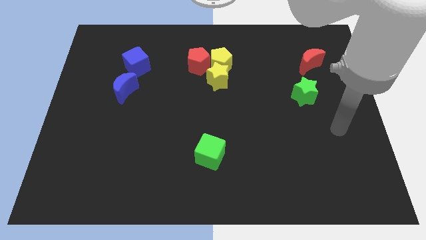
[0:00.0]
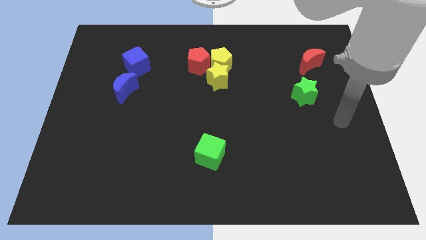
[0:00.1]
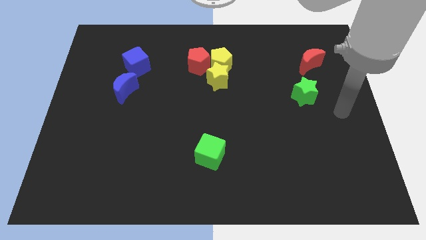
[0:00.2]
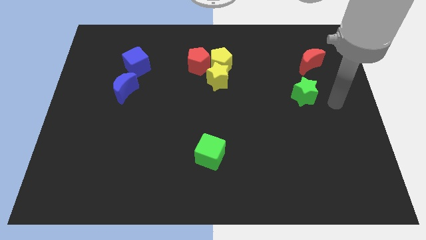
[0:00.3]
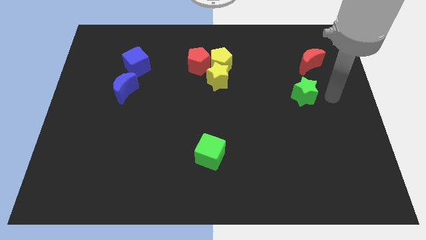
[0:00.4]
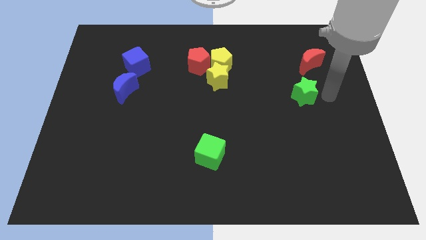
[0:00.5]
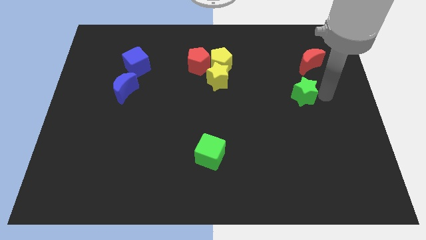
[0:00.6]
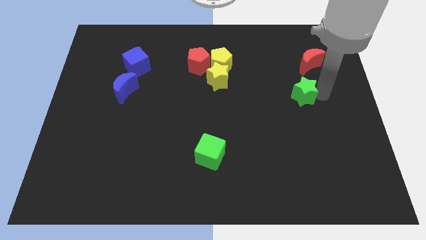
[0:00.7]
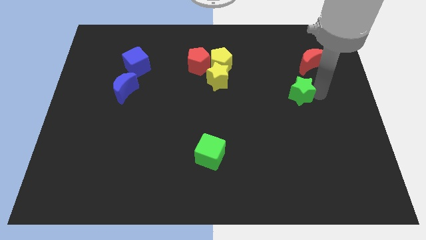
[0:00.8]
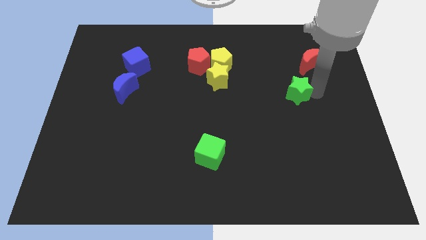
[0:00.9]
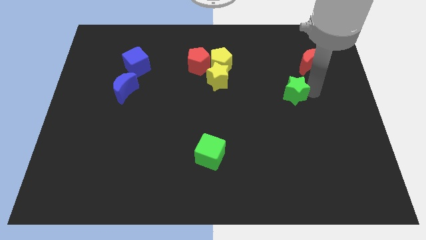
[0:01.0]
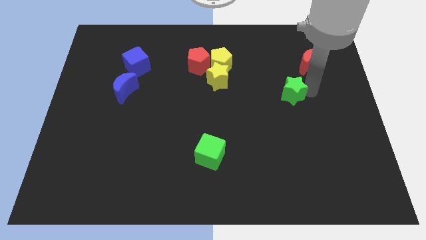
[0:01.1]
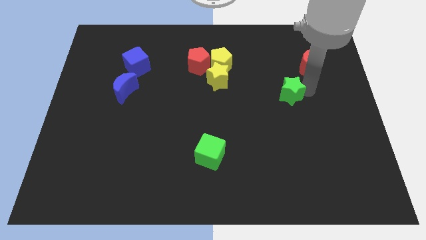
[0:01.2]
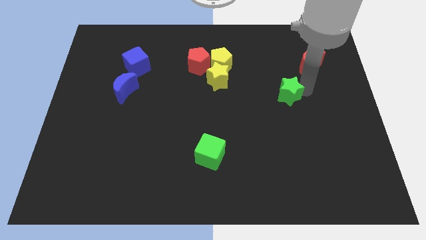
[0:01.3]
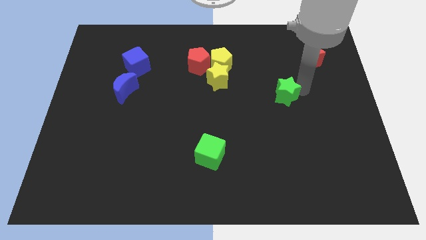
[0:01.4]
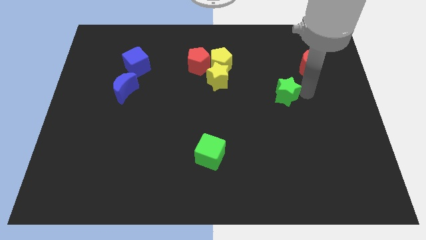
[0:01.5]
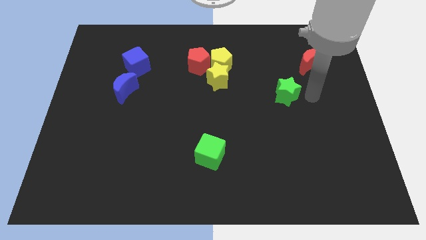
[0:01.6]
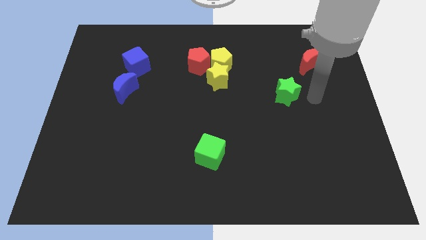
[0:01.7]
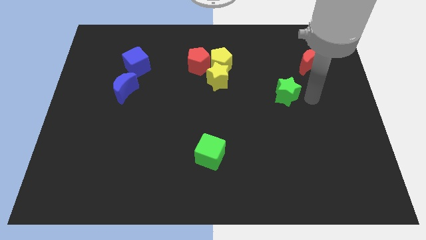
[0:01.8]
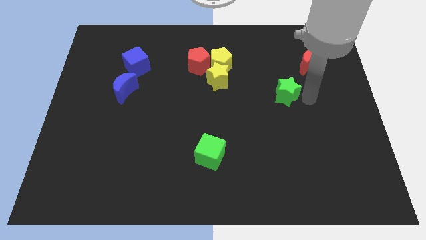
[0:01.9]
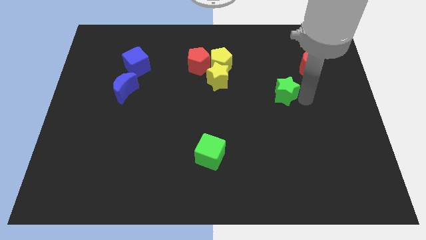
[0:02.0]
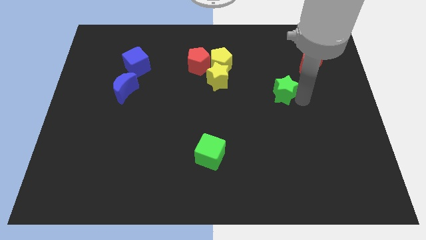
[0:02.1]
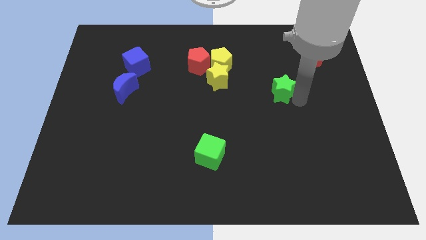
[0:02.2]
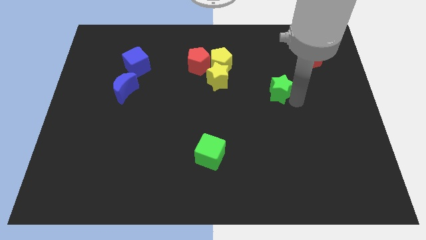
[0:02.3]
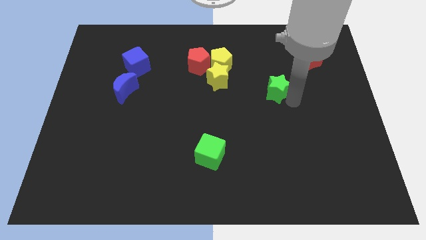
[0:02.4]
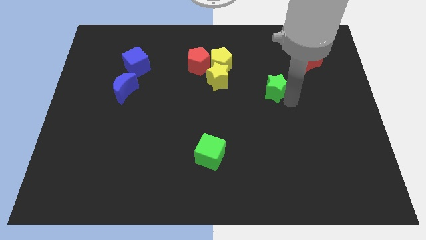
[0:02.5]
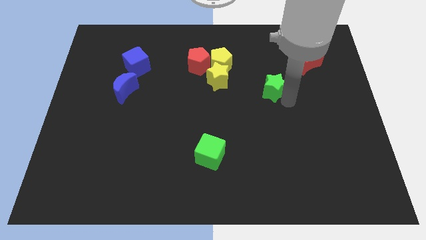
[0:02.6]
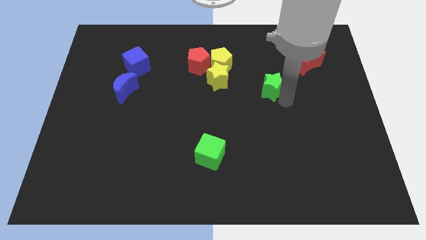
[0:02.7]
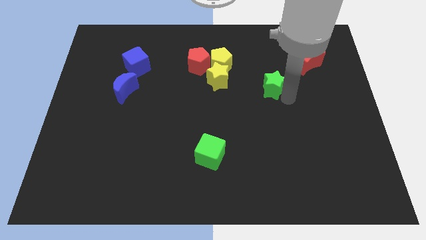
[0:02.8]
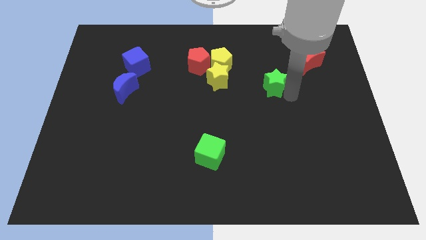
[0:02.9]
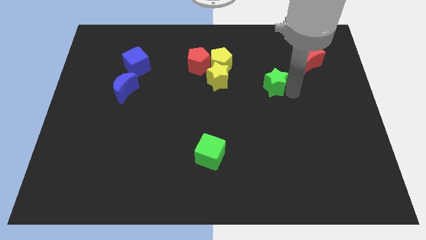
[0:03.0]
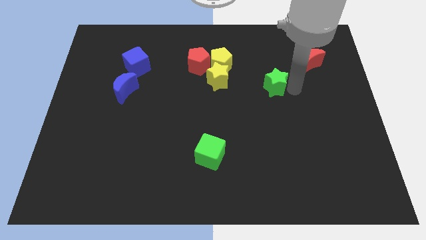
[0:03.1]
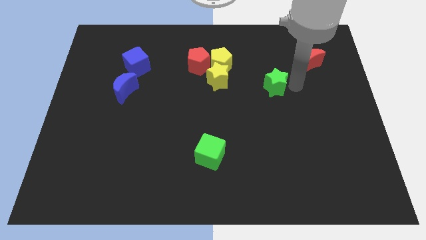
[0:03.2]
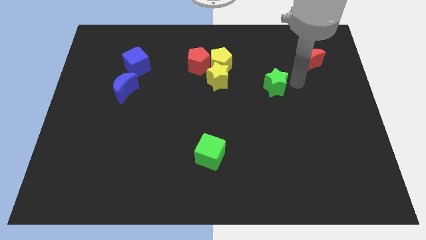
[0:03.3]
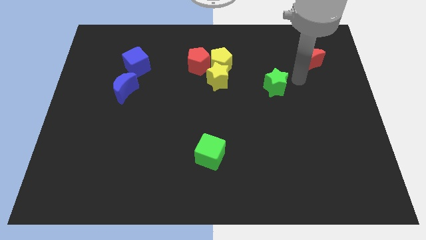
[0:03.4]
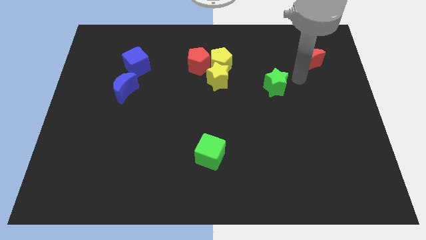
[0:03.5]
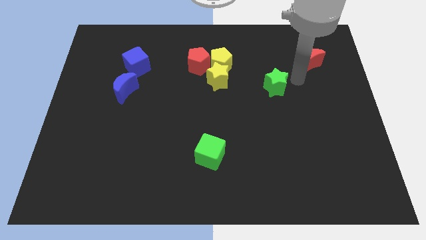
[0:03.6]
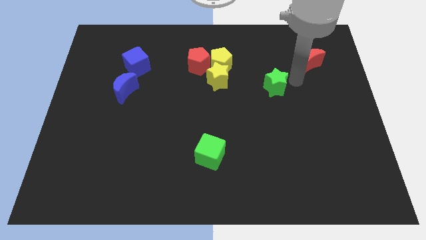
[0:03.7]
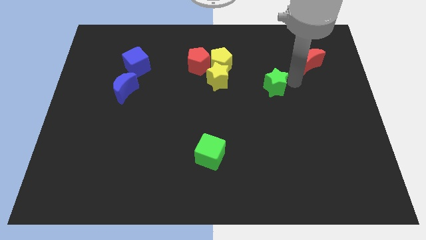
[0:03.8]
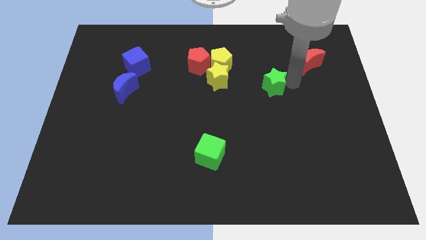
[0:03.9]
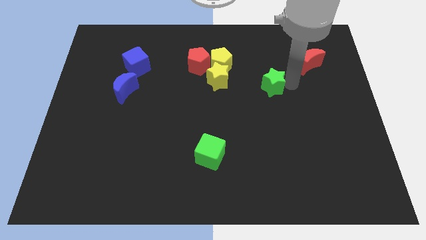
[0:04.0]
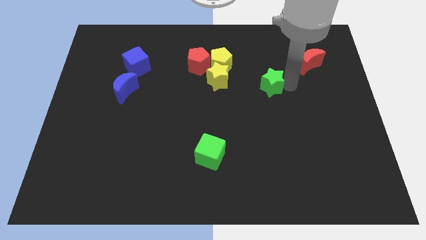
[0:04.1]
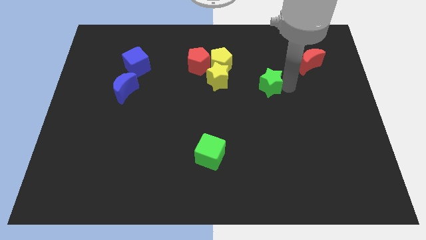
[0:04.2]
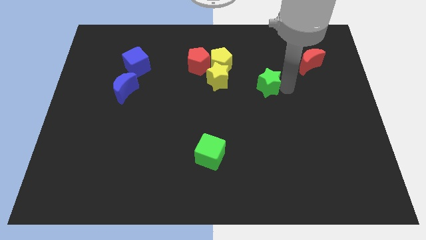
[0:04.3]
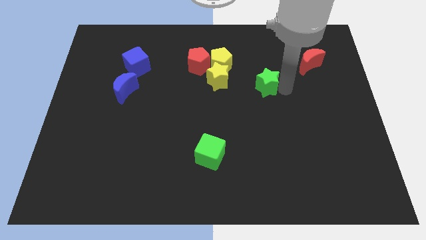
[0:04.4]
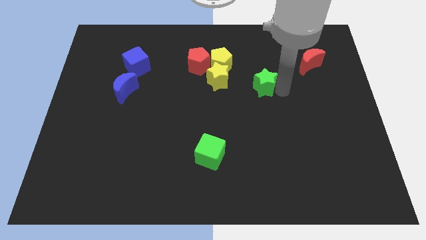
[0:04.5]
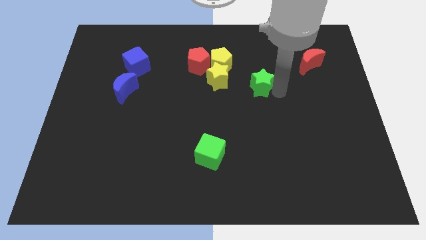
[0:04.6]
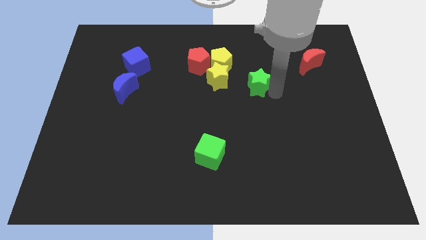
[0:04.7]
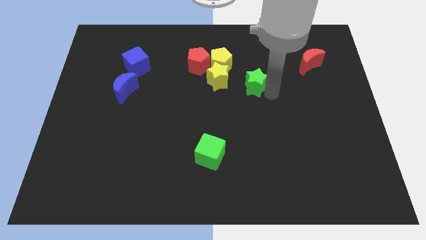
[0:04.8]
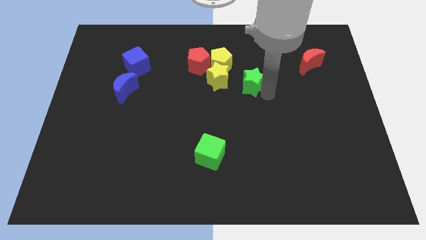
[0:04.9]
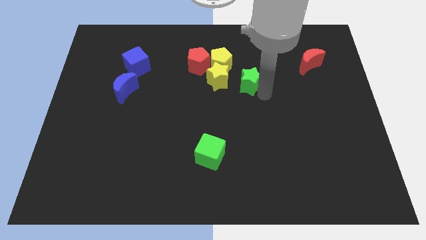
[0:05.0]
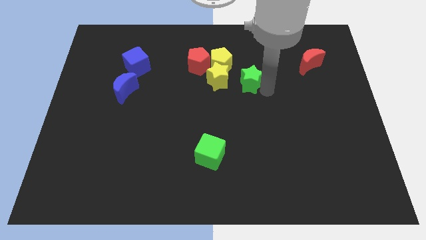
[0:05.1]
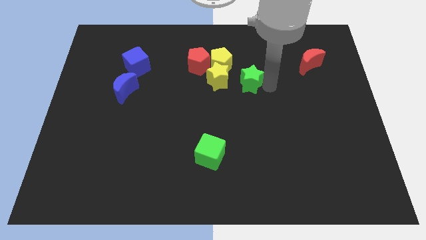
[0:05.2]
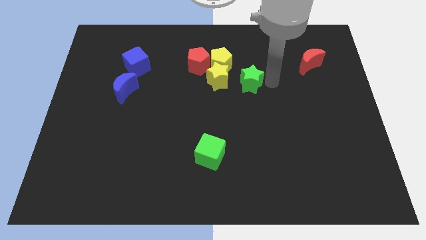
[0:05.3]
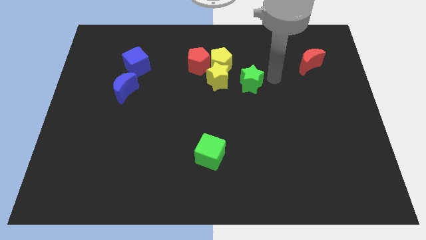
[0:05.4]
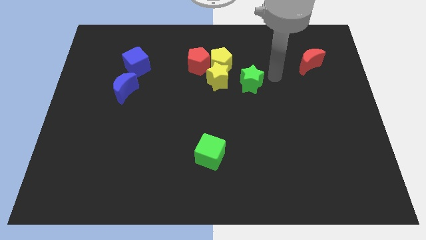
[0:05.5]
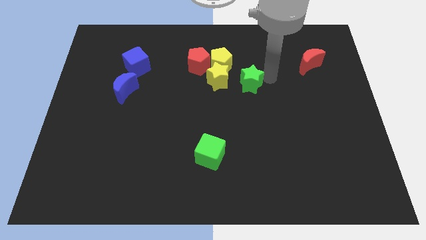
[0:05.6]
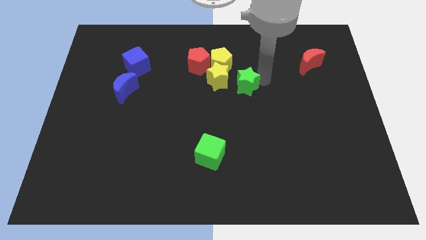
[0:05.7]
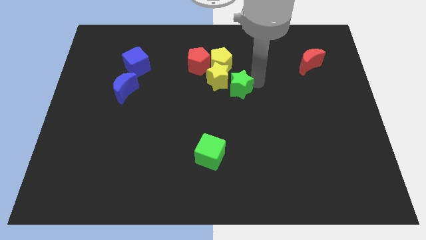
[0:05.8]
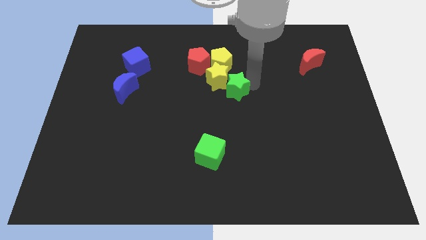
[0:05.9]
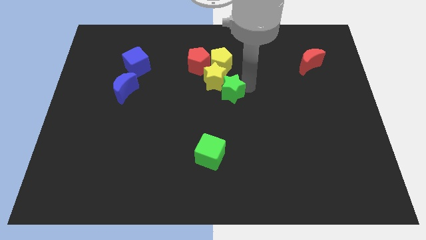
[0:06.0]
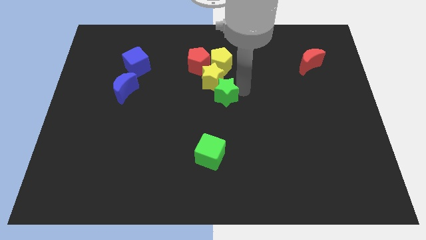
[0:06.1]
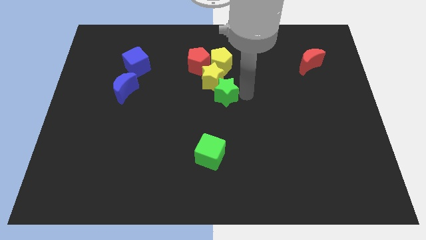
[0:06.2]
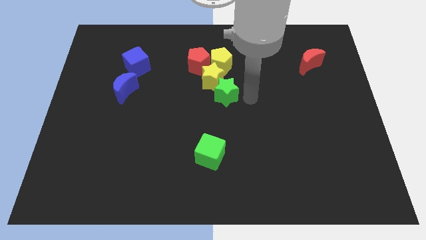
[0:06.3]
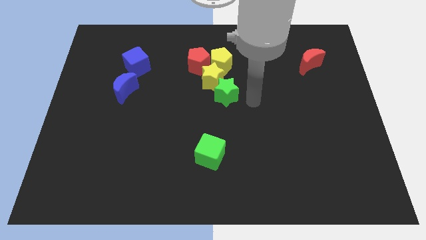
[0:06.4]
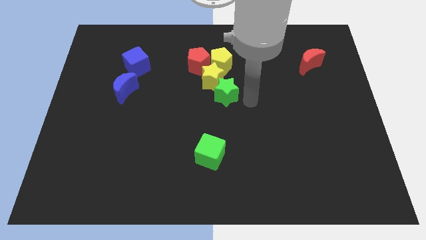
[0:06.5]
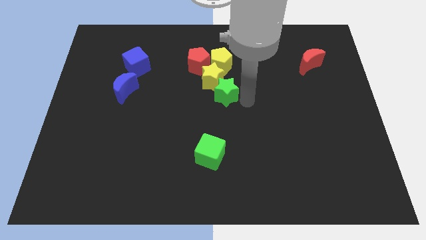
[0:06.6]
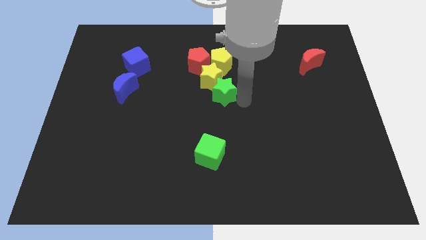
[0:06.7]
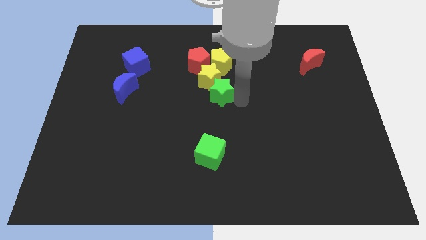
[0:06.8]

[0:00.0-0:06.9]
move the green star to the left

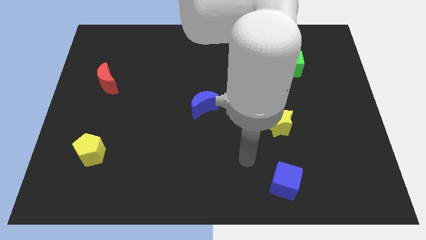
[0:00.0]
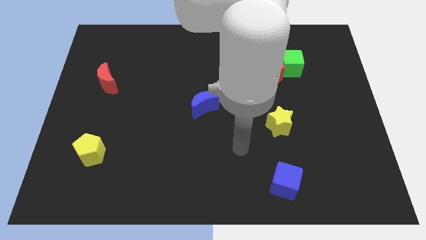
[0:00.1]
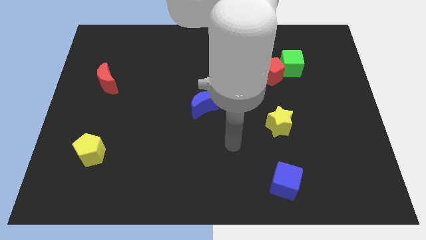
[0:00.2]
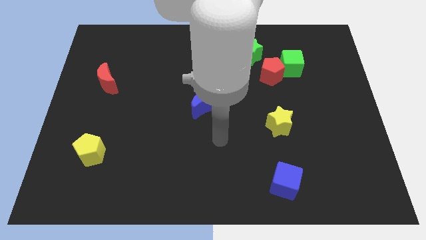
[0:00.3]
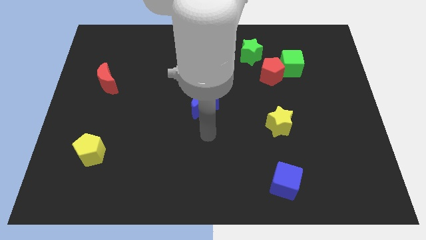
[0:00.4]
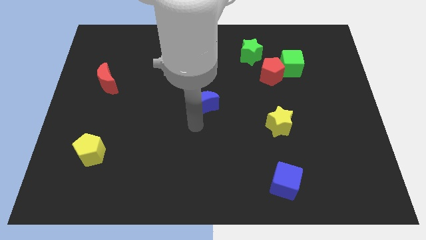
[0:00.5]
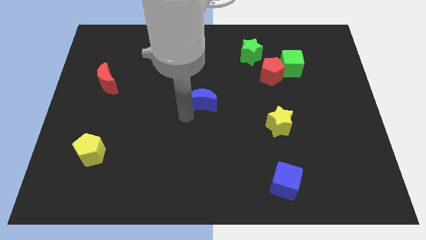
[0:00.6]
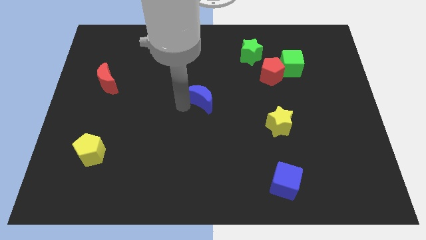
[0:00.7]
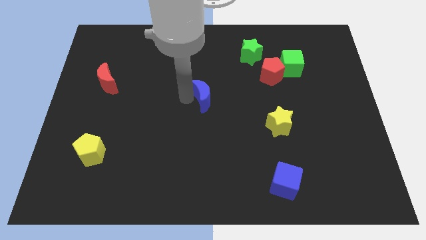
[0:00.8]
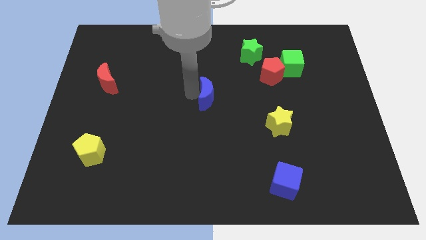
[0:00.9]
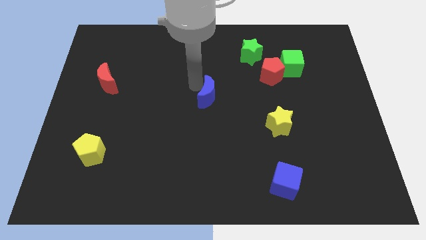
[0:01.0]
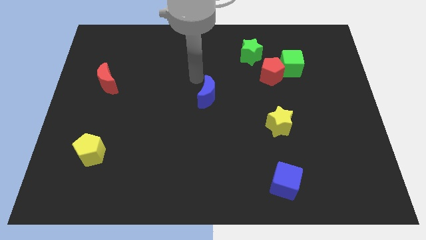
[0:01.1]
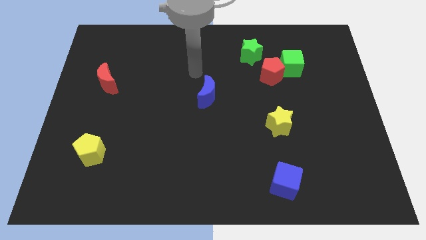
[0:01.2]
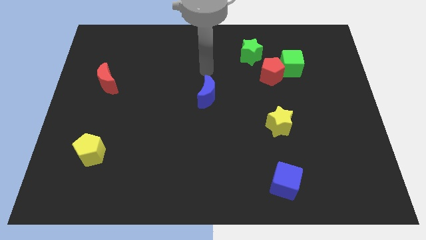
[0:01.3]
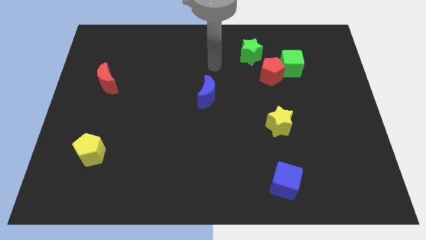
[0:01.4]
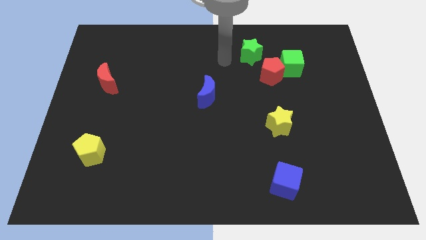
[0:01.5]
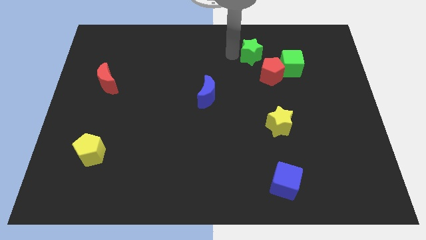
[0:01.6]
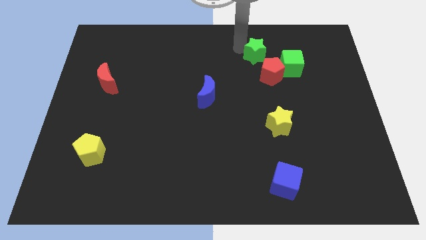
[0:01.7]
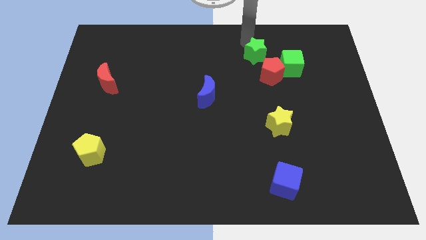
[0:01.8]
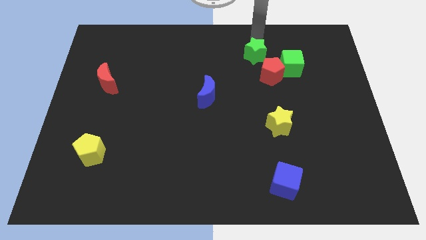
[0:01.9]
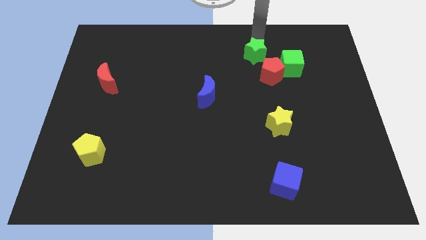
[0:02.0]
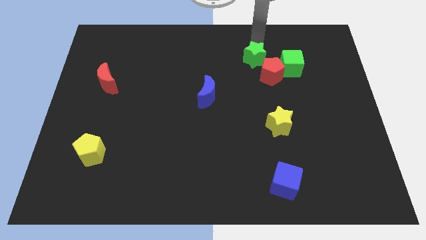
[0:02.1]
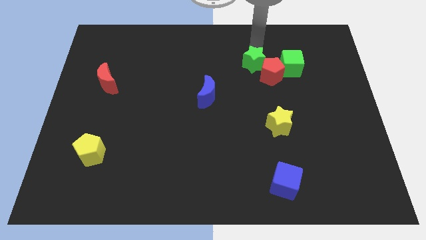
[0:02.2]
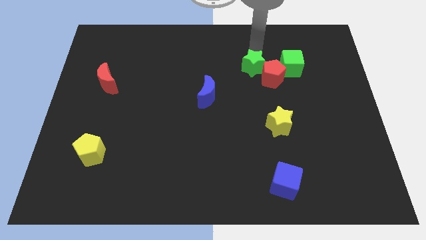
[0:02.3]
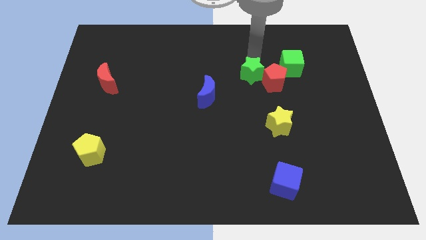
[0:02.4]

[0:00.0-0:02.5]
push the green star slightly down
